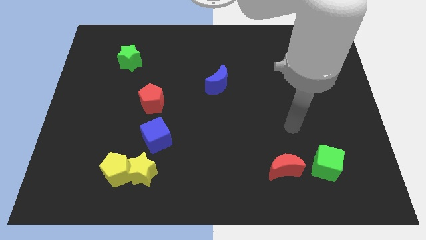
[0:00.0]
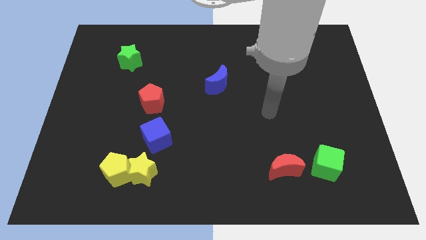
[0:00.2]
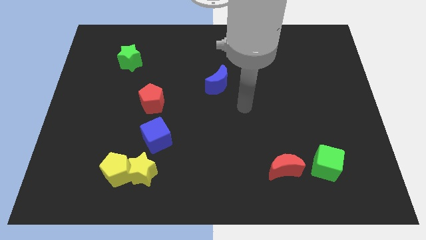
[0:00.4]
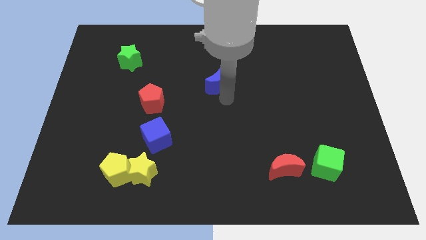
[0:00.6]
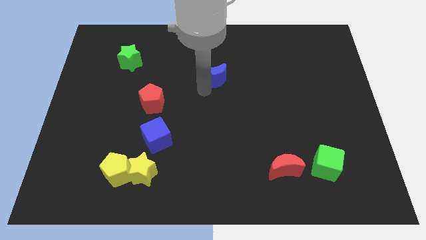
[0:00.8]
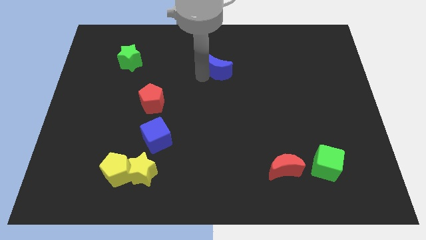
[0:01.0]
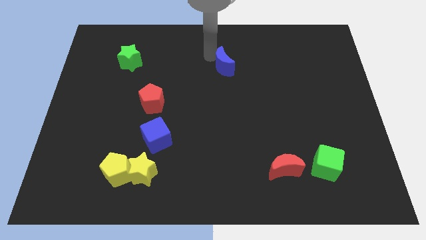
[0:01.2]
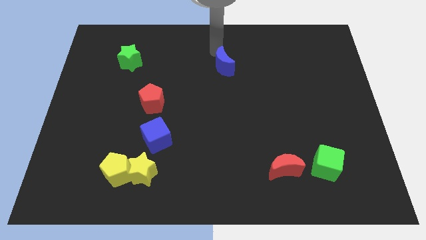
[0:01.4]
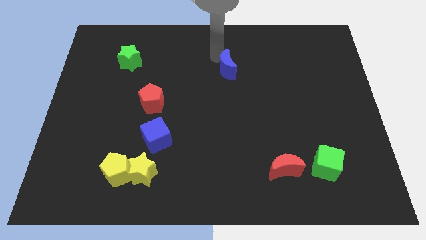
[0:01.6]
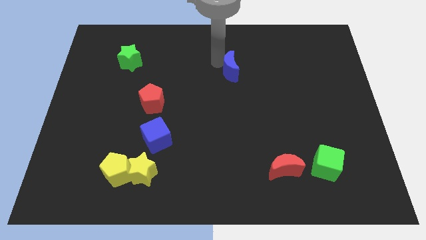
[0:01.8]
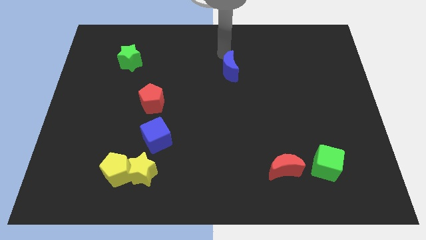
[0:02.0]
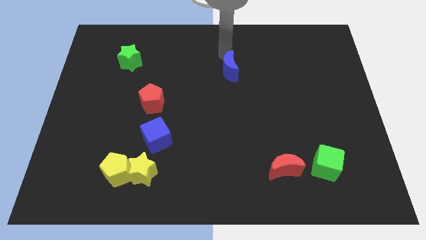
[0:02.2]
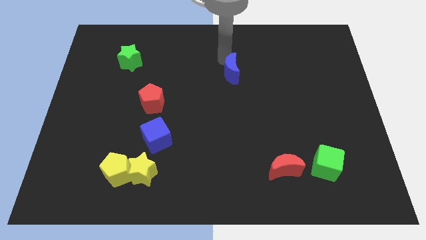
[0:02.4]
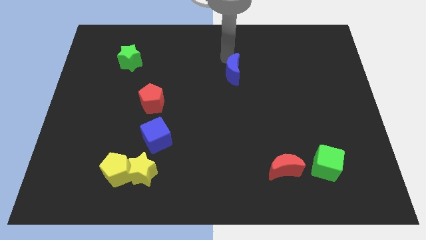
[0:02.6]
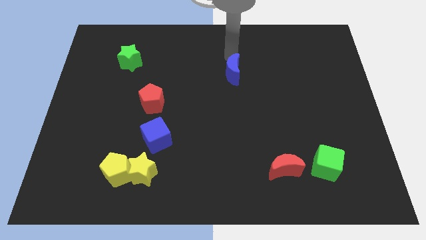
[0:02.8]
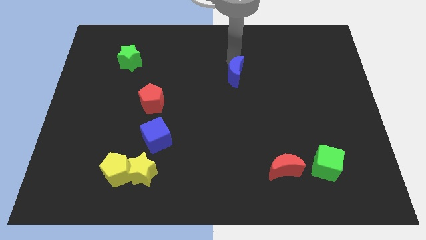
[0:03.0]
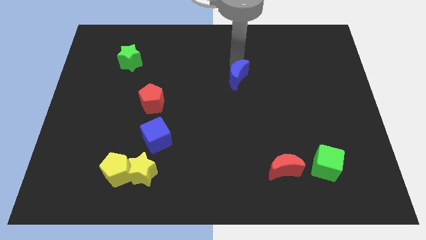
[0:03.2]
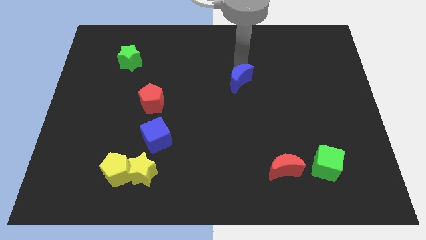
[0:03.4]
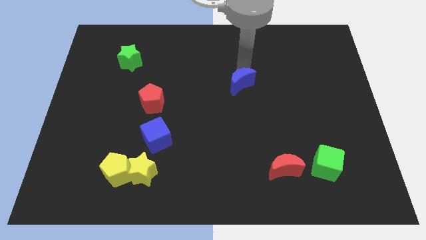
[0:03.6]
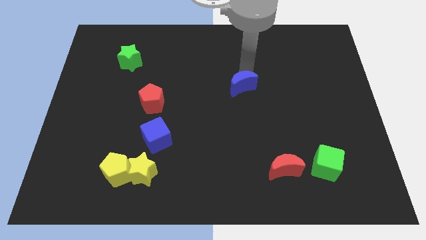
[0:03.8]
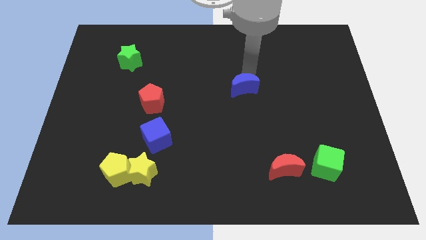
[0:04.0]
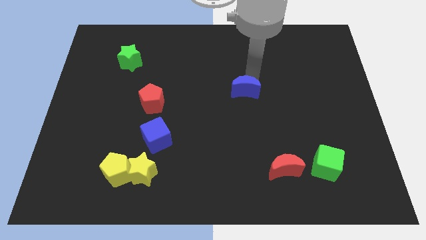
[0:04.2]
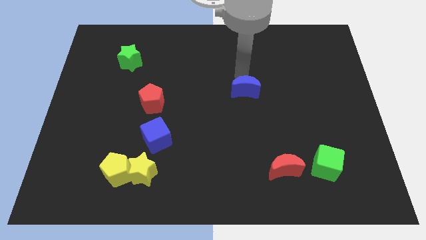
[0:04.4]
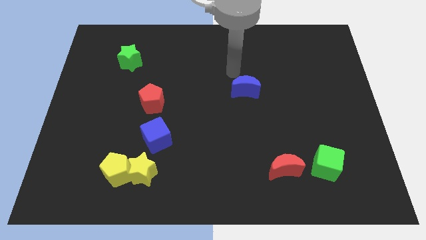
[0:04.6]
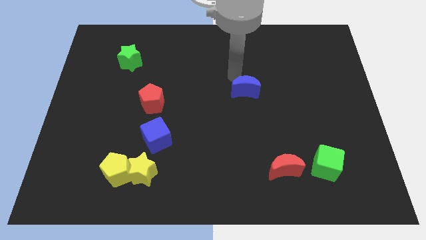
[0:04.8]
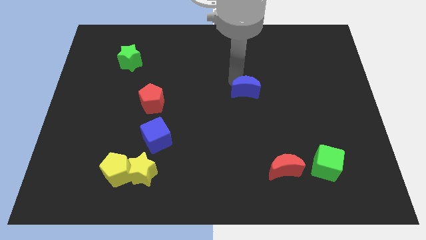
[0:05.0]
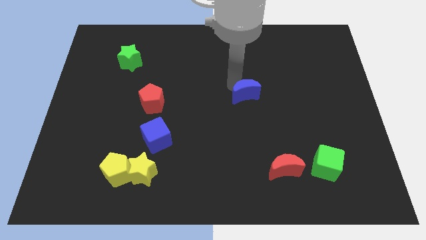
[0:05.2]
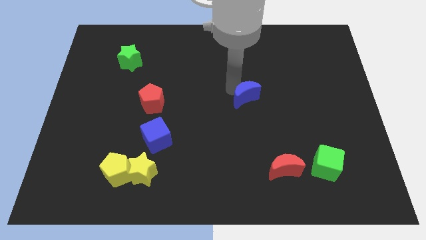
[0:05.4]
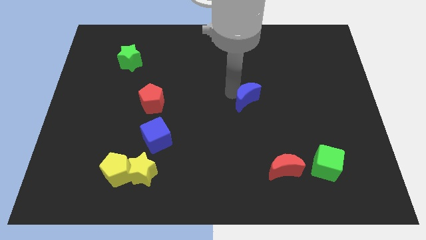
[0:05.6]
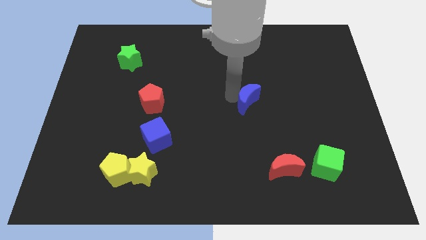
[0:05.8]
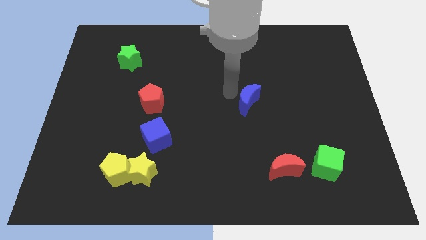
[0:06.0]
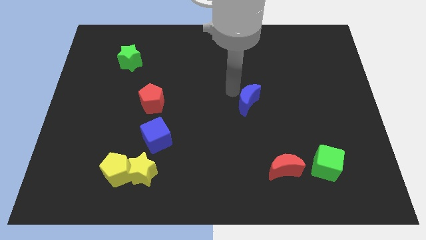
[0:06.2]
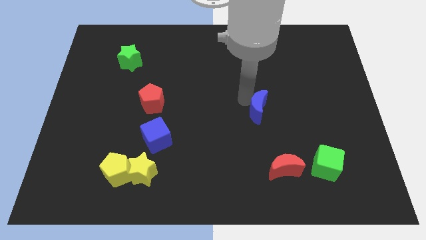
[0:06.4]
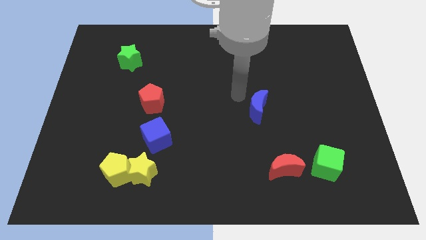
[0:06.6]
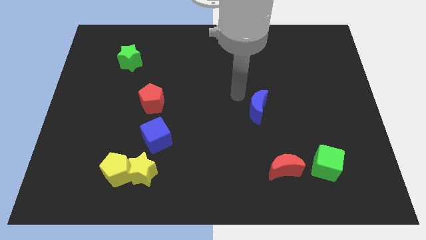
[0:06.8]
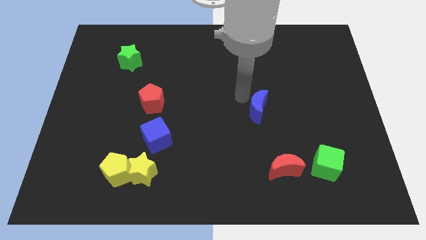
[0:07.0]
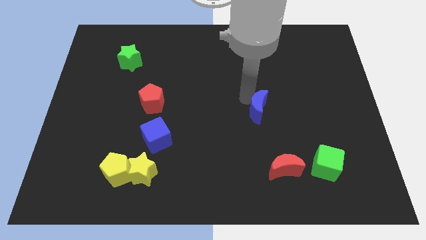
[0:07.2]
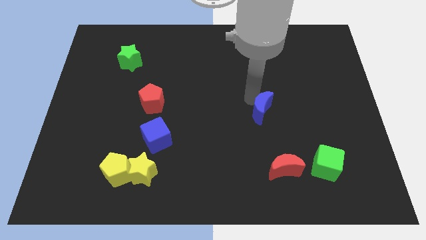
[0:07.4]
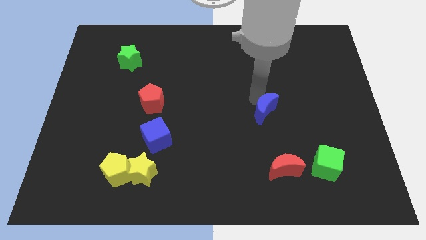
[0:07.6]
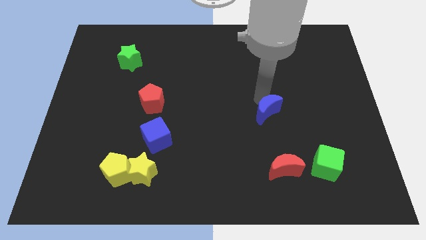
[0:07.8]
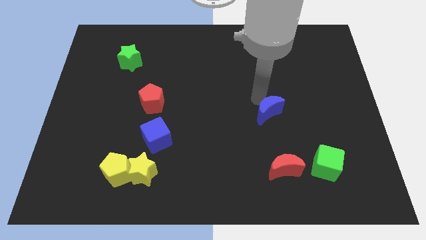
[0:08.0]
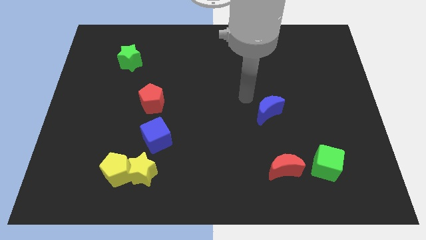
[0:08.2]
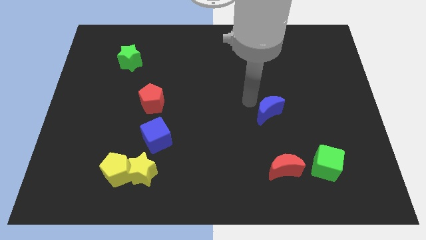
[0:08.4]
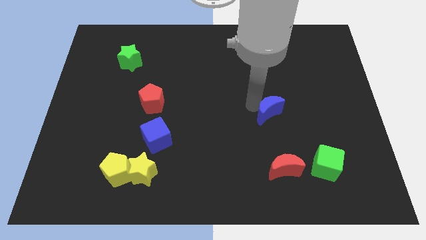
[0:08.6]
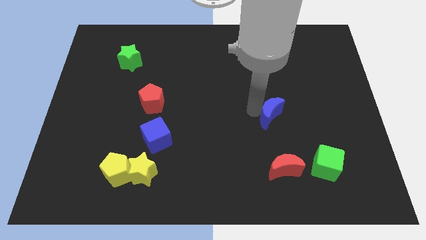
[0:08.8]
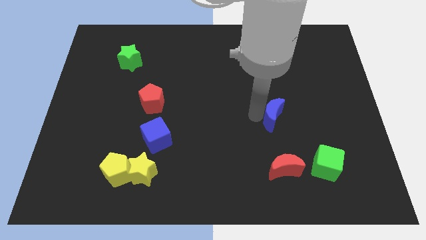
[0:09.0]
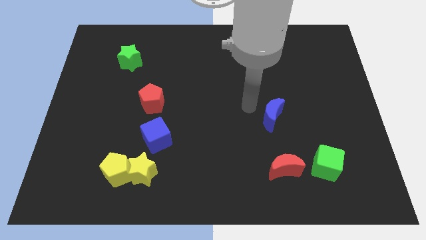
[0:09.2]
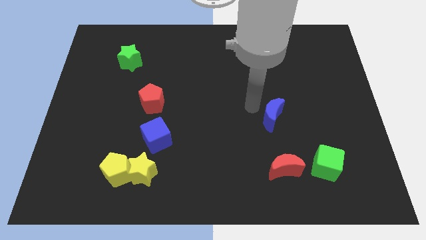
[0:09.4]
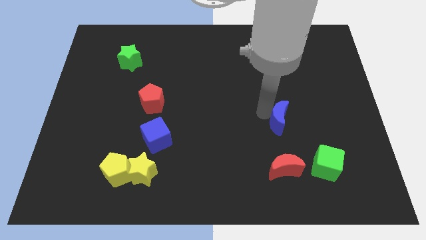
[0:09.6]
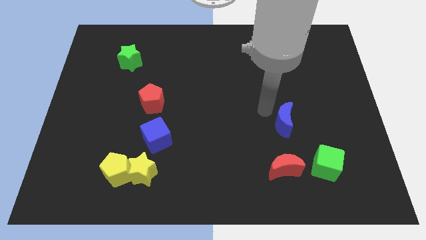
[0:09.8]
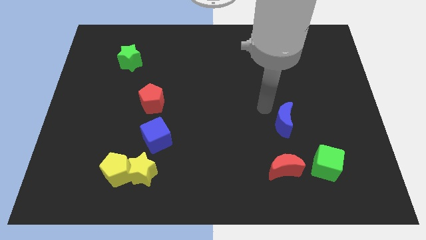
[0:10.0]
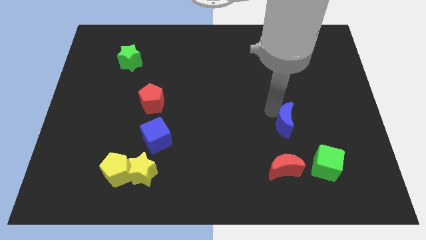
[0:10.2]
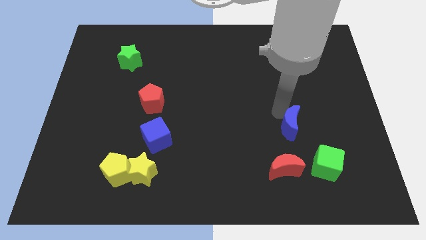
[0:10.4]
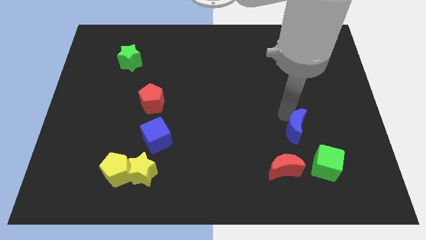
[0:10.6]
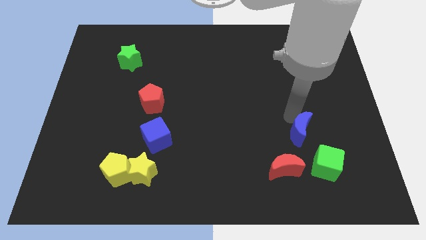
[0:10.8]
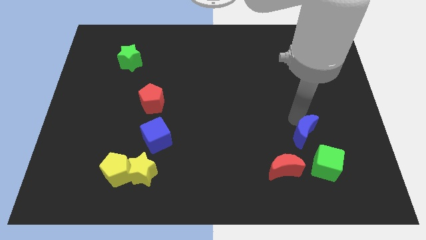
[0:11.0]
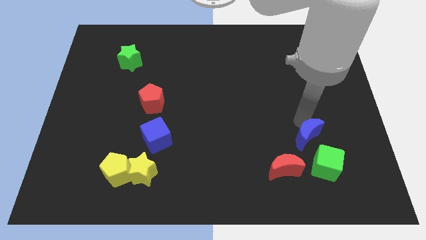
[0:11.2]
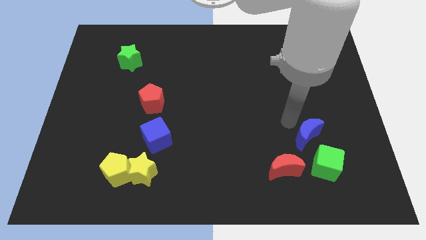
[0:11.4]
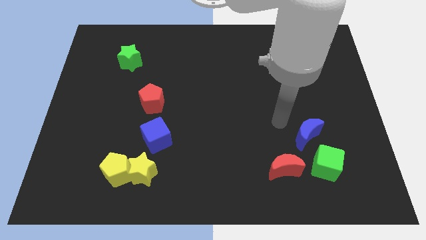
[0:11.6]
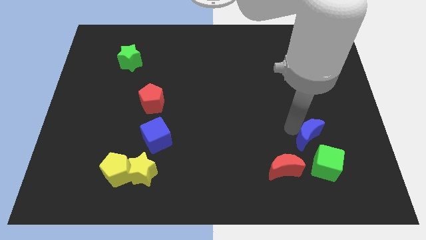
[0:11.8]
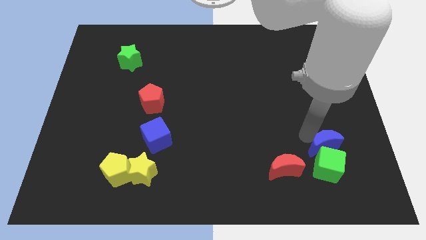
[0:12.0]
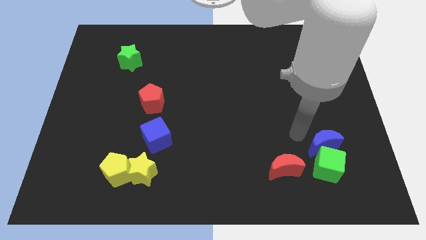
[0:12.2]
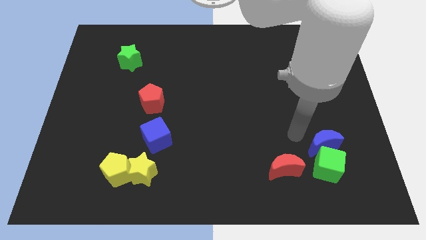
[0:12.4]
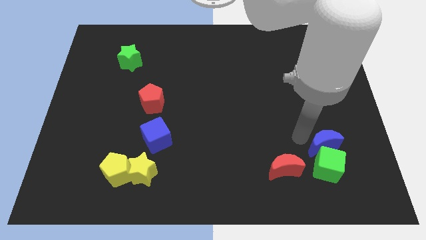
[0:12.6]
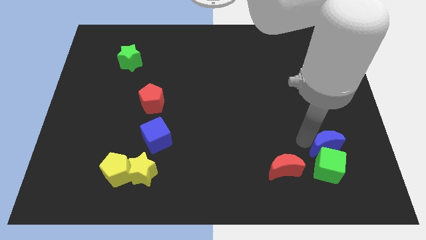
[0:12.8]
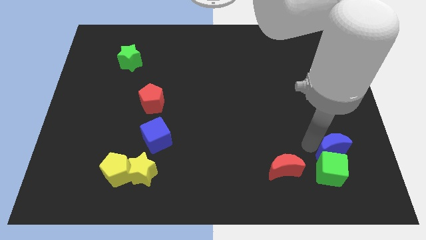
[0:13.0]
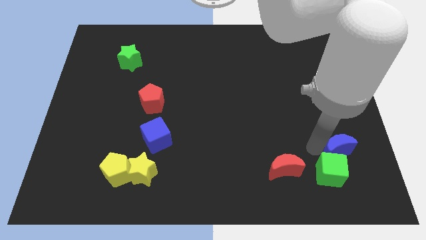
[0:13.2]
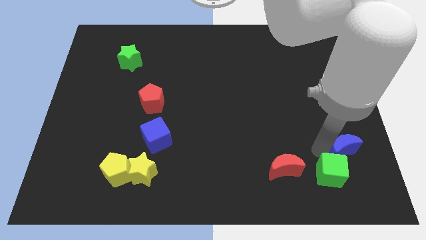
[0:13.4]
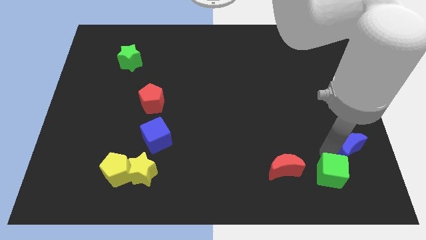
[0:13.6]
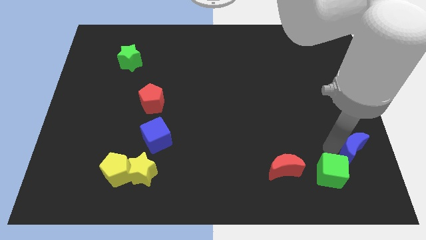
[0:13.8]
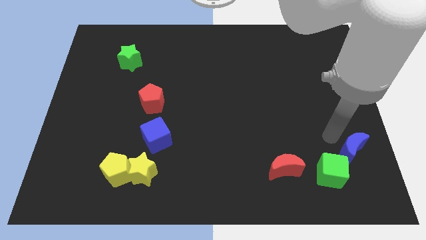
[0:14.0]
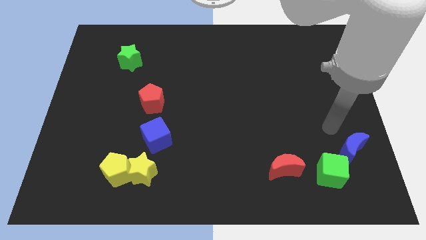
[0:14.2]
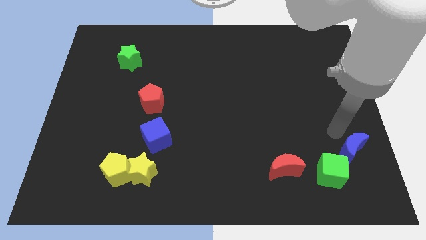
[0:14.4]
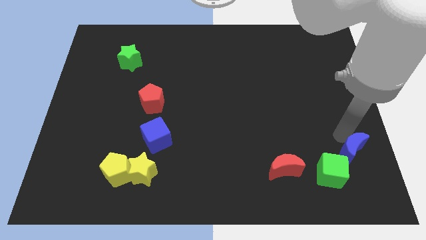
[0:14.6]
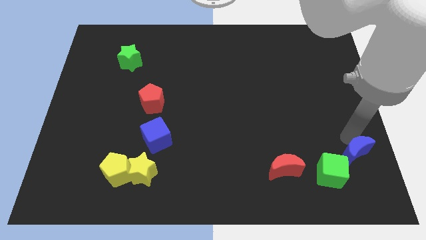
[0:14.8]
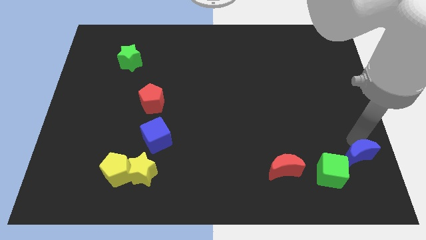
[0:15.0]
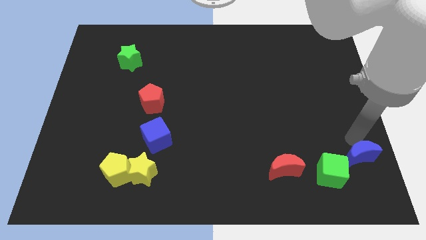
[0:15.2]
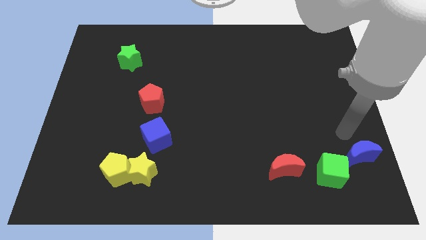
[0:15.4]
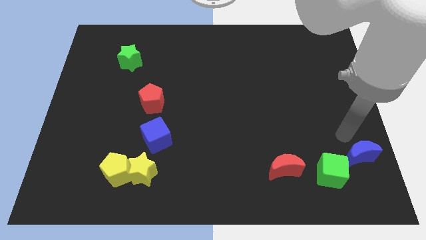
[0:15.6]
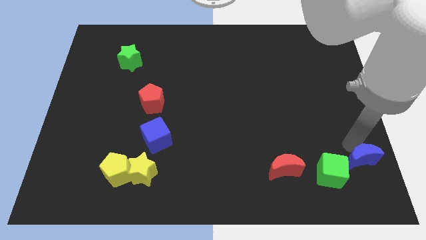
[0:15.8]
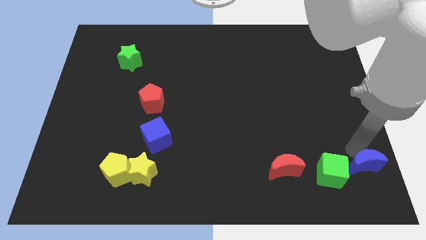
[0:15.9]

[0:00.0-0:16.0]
slide the blue moon to the bottom right of the board
